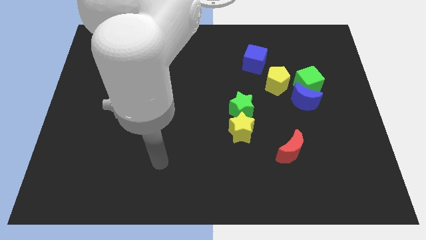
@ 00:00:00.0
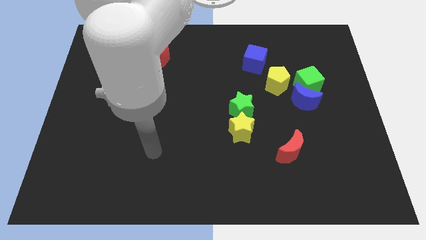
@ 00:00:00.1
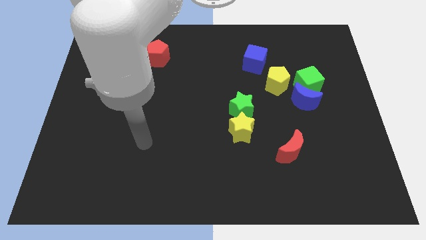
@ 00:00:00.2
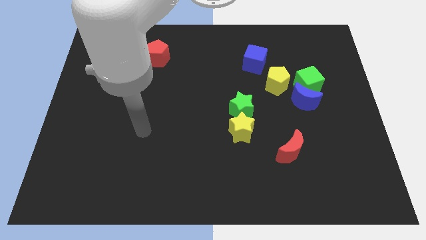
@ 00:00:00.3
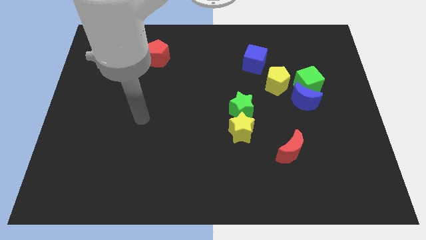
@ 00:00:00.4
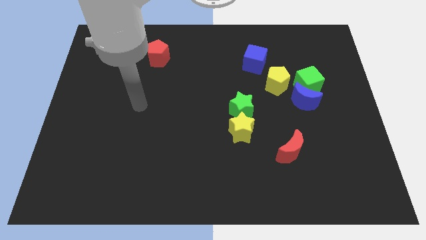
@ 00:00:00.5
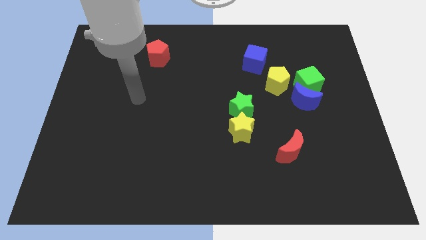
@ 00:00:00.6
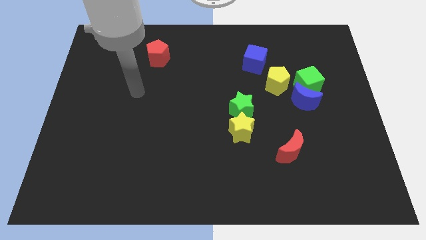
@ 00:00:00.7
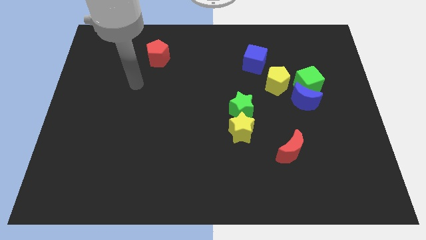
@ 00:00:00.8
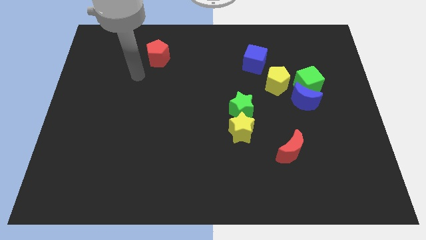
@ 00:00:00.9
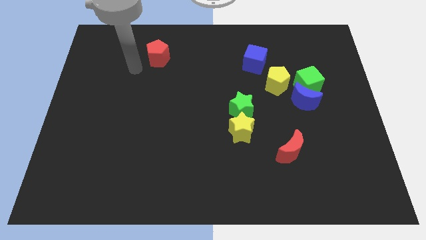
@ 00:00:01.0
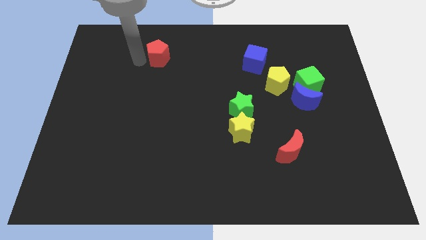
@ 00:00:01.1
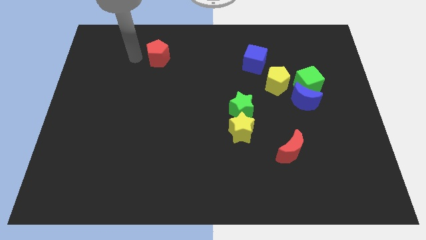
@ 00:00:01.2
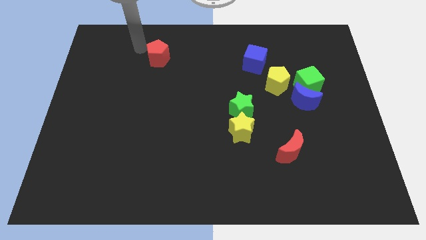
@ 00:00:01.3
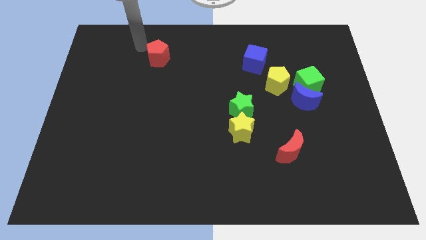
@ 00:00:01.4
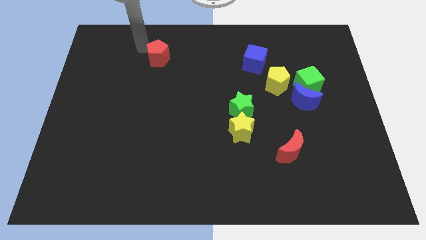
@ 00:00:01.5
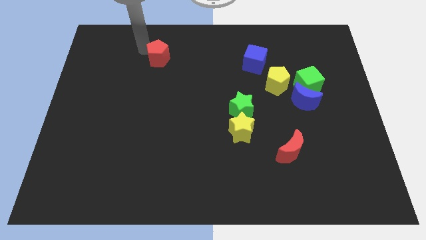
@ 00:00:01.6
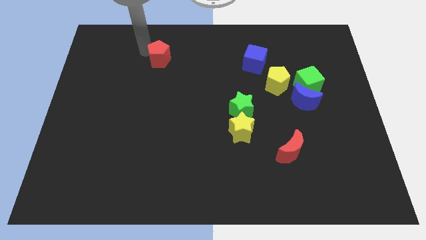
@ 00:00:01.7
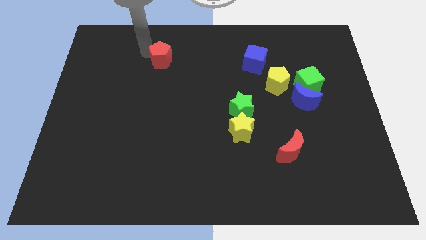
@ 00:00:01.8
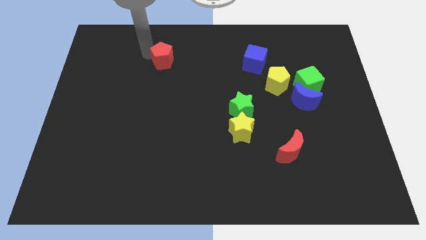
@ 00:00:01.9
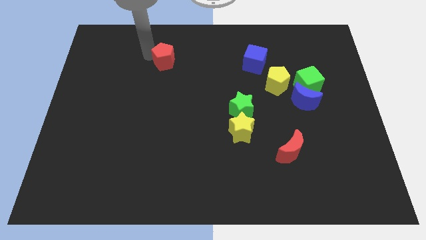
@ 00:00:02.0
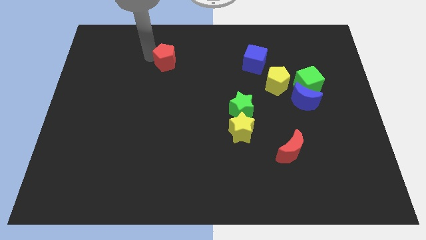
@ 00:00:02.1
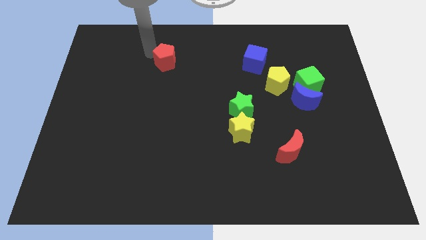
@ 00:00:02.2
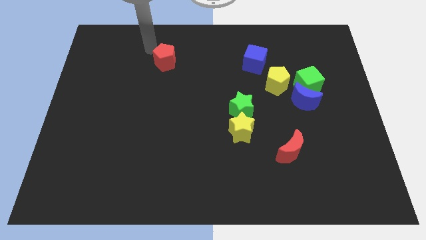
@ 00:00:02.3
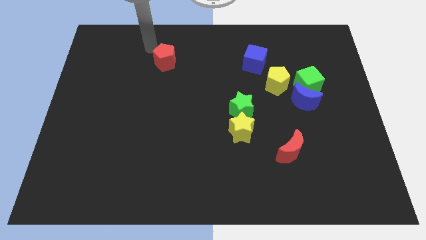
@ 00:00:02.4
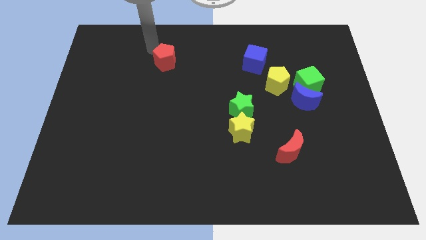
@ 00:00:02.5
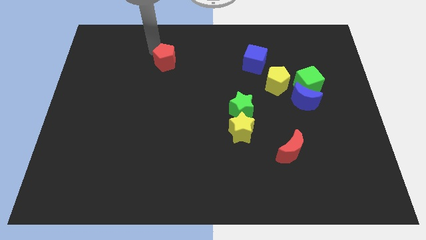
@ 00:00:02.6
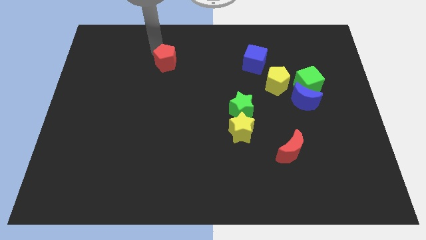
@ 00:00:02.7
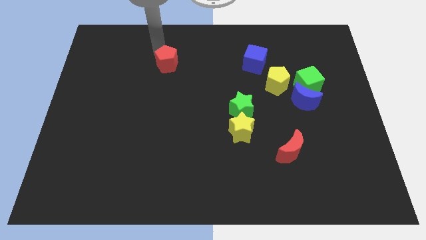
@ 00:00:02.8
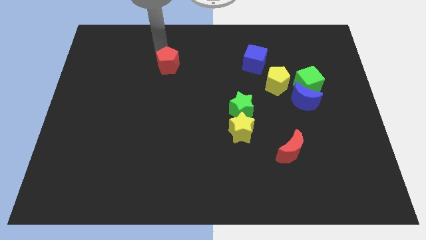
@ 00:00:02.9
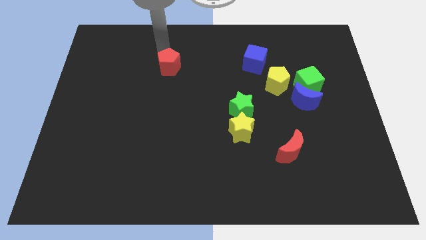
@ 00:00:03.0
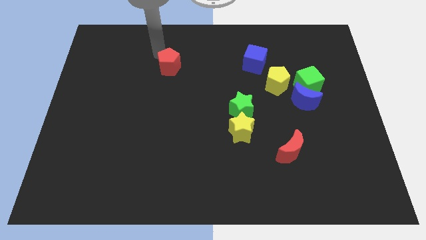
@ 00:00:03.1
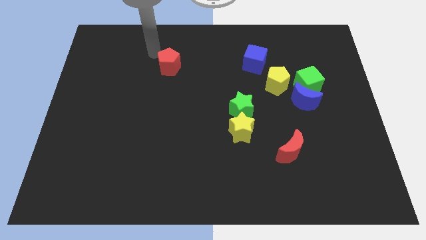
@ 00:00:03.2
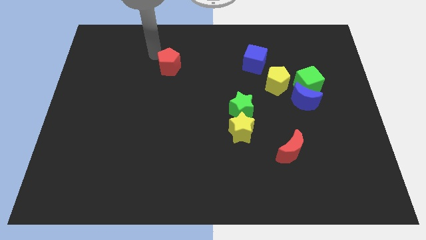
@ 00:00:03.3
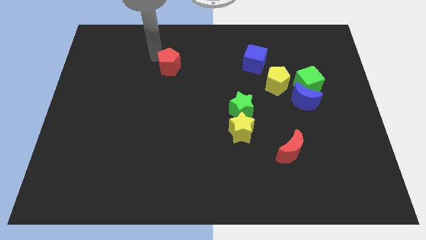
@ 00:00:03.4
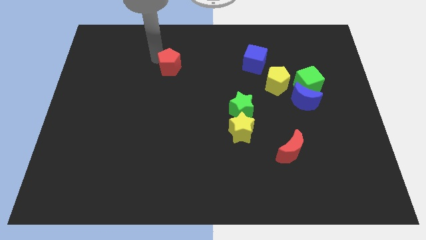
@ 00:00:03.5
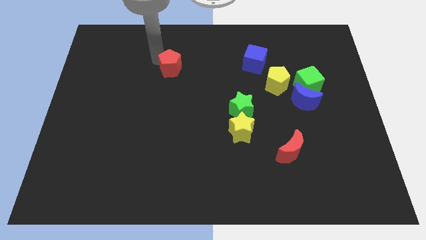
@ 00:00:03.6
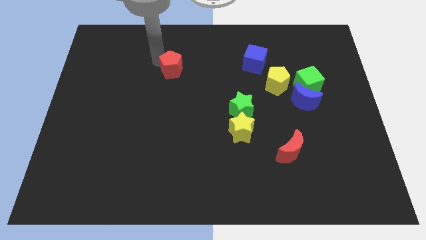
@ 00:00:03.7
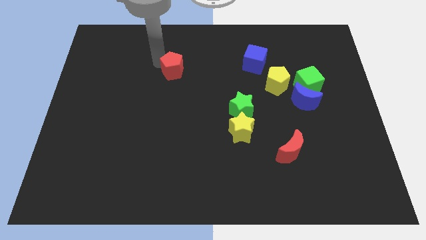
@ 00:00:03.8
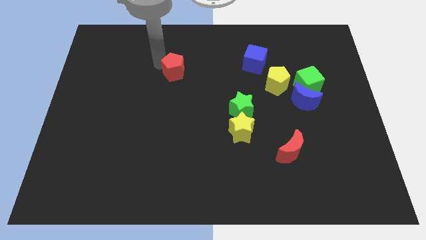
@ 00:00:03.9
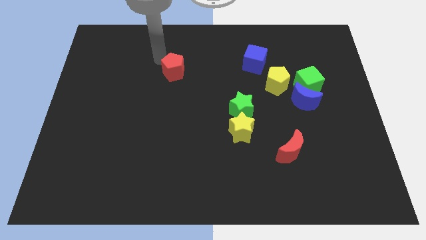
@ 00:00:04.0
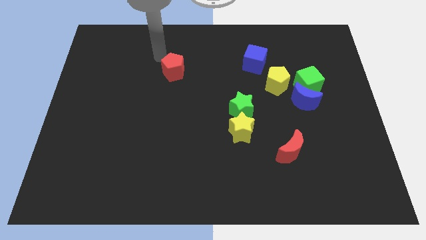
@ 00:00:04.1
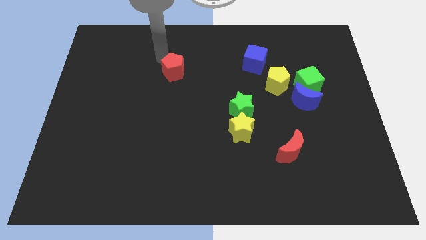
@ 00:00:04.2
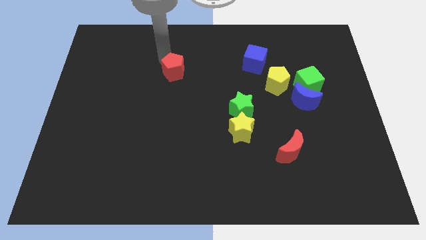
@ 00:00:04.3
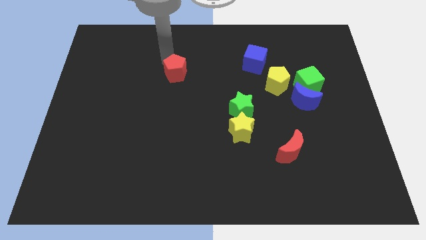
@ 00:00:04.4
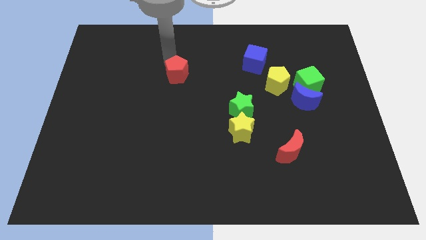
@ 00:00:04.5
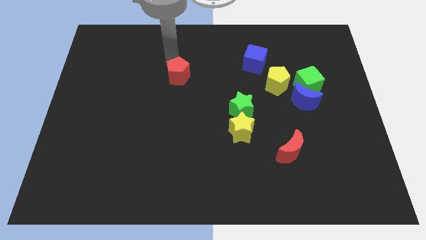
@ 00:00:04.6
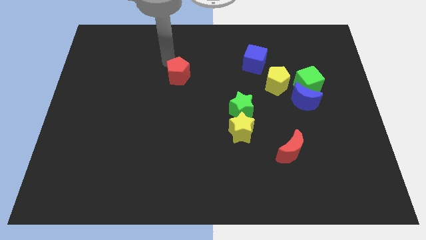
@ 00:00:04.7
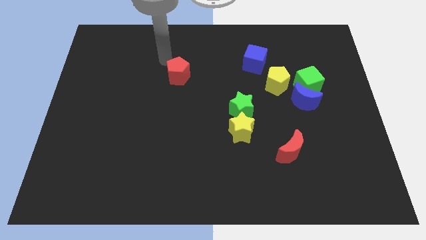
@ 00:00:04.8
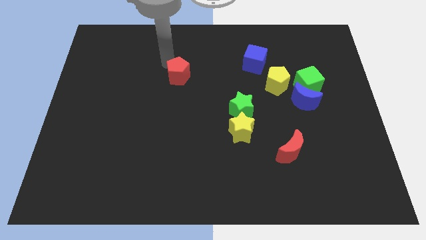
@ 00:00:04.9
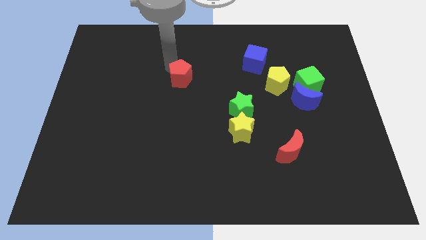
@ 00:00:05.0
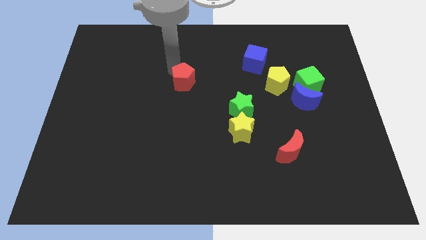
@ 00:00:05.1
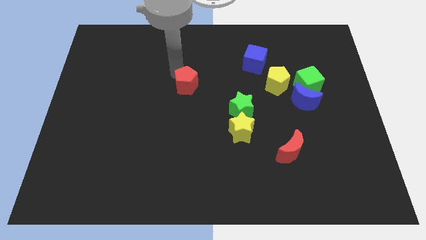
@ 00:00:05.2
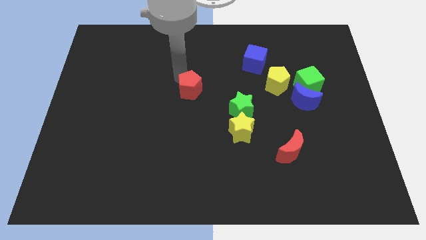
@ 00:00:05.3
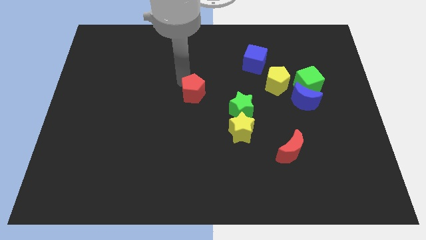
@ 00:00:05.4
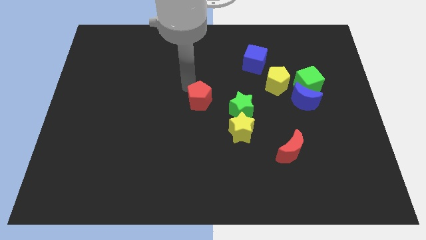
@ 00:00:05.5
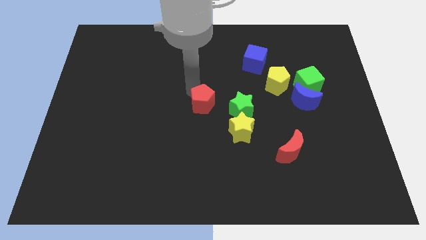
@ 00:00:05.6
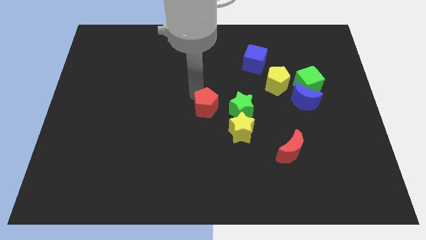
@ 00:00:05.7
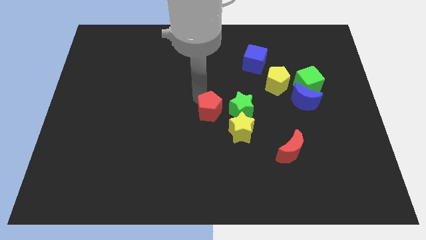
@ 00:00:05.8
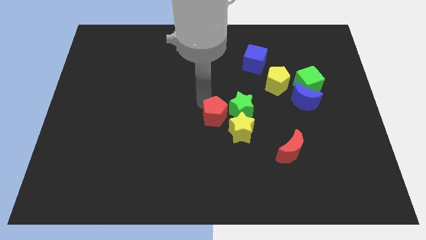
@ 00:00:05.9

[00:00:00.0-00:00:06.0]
move the red pentagon to the bottom left side of the green star
